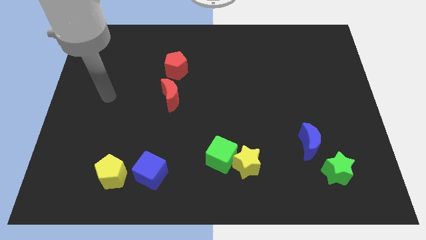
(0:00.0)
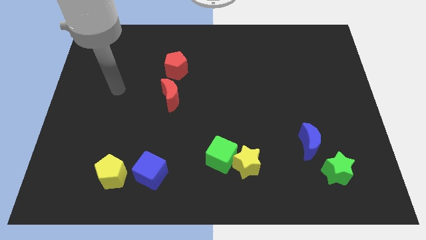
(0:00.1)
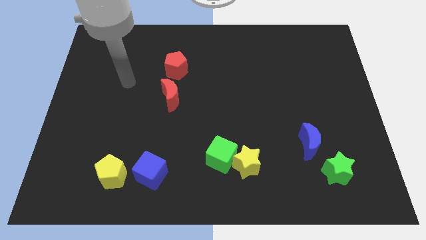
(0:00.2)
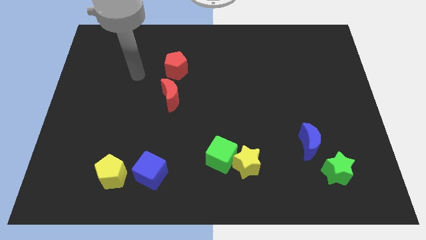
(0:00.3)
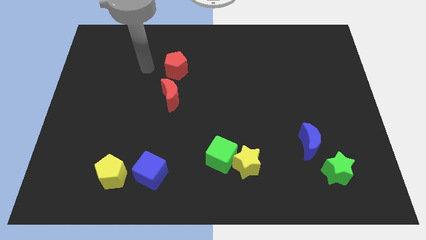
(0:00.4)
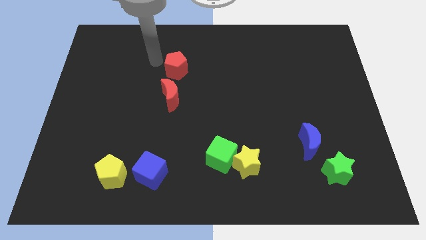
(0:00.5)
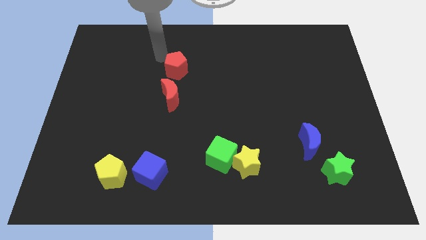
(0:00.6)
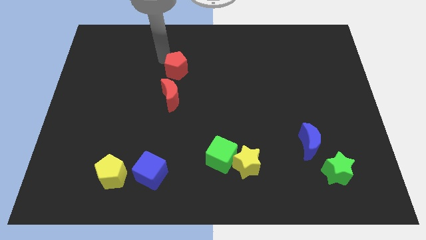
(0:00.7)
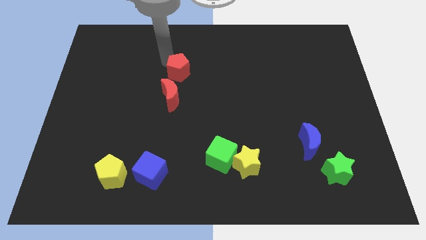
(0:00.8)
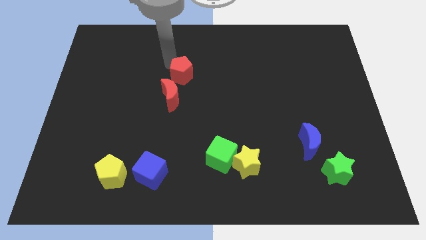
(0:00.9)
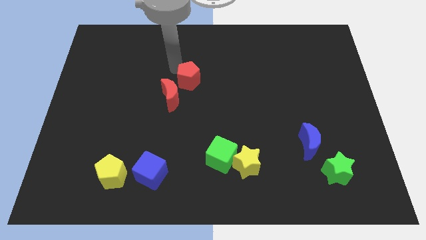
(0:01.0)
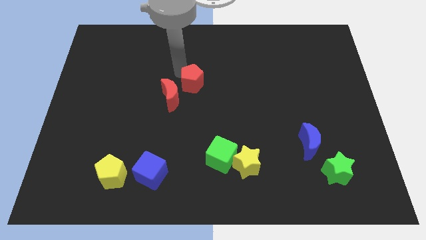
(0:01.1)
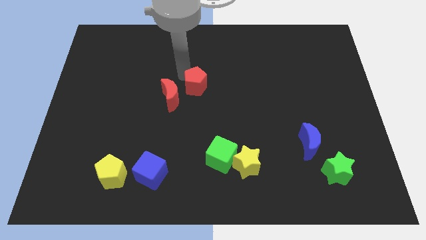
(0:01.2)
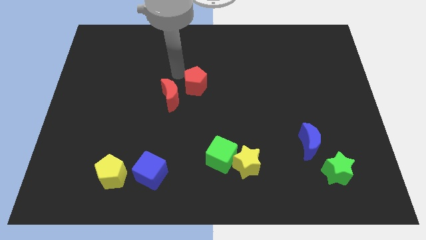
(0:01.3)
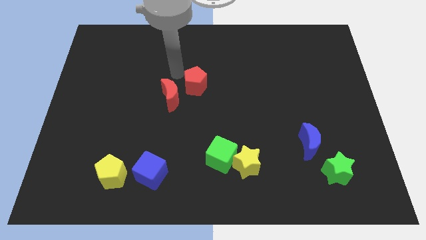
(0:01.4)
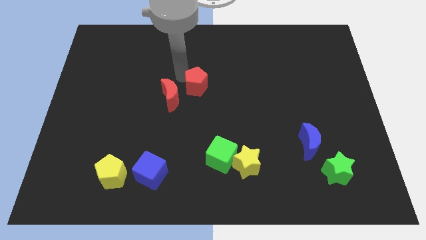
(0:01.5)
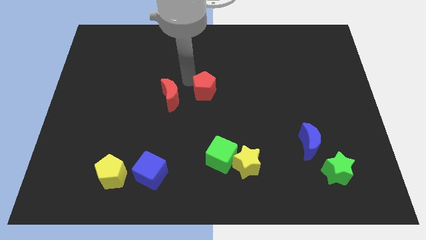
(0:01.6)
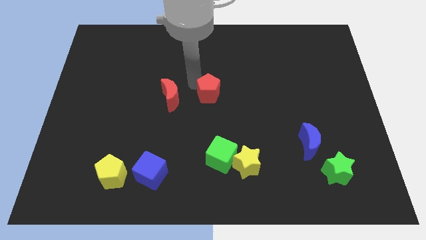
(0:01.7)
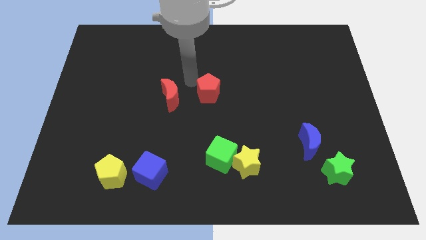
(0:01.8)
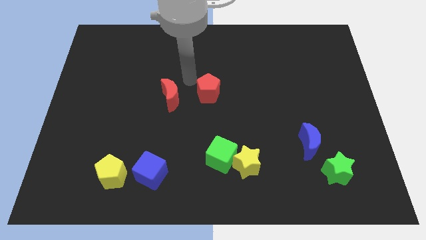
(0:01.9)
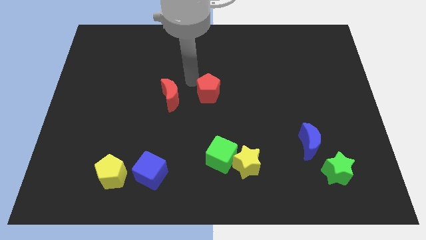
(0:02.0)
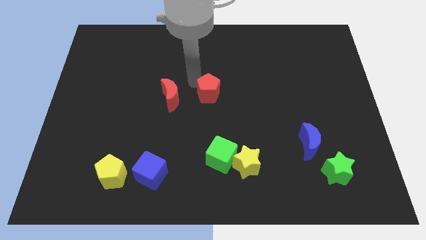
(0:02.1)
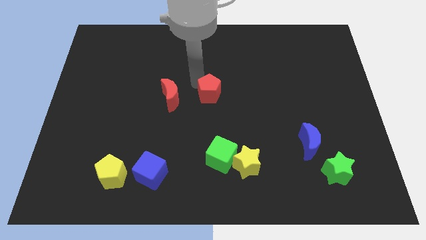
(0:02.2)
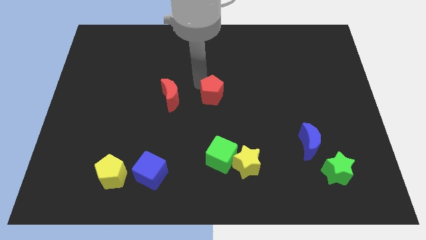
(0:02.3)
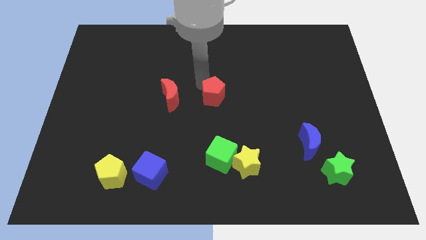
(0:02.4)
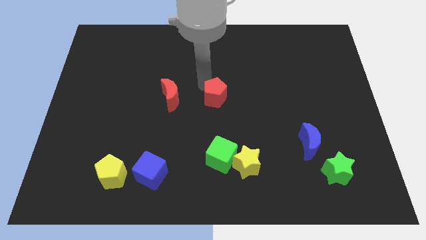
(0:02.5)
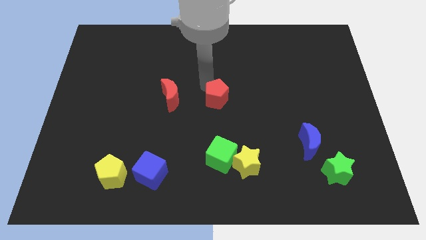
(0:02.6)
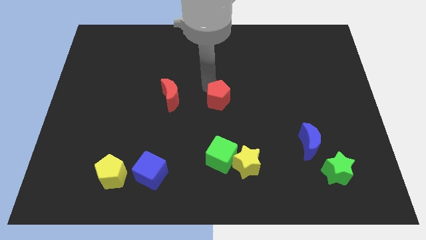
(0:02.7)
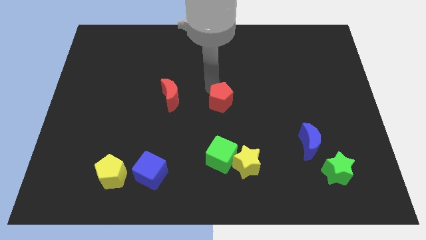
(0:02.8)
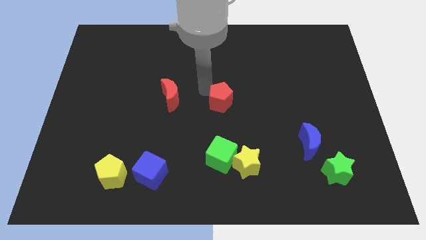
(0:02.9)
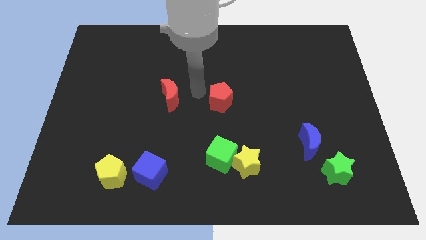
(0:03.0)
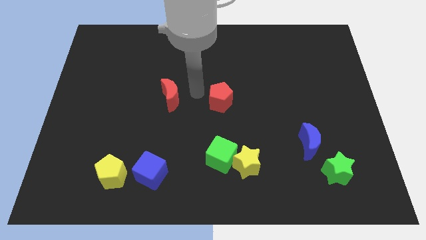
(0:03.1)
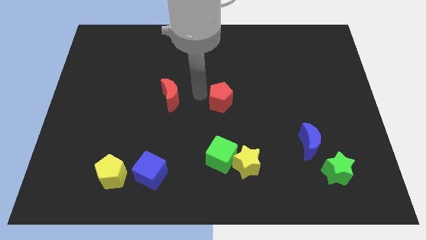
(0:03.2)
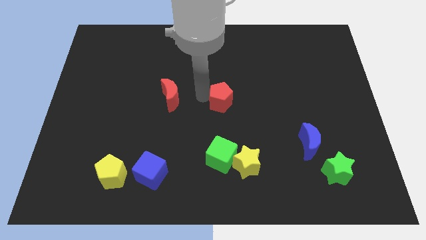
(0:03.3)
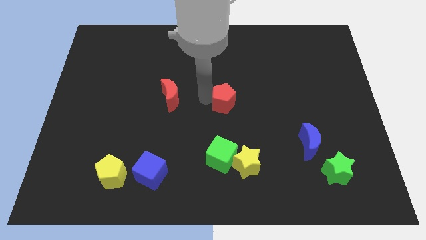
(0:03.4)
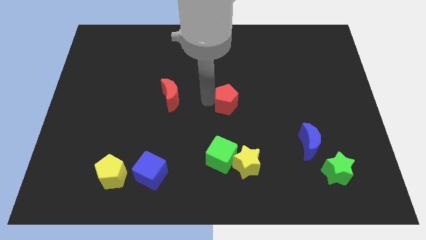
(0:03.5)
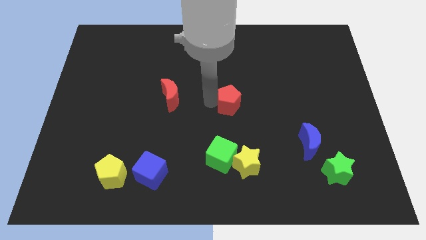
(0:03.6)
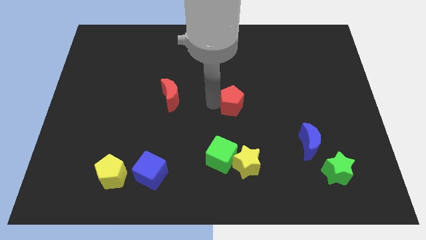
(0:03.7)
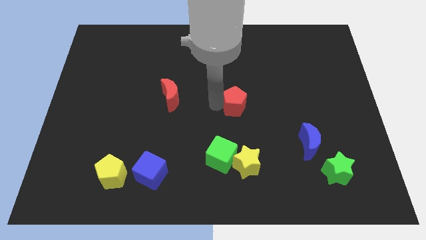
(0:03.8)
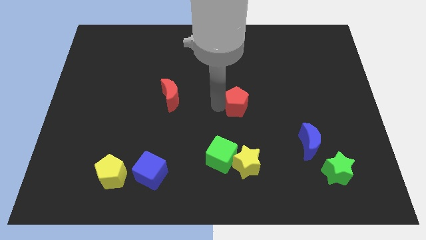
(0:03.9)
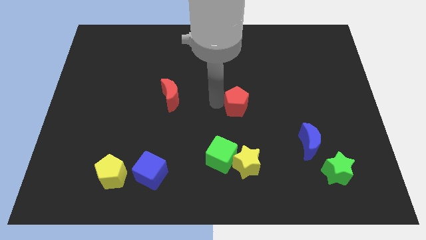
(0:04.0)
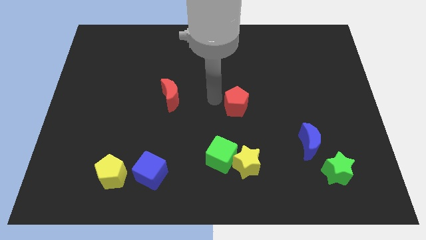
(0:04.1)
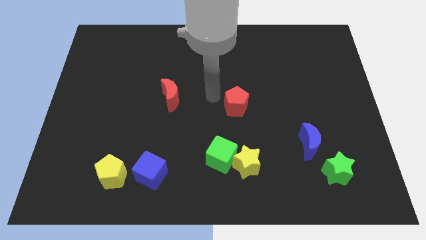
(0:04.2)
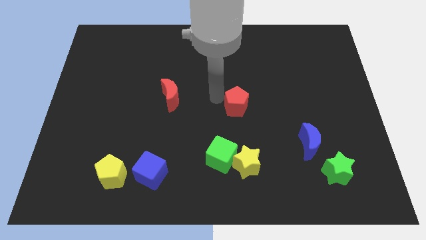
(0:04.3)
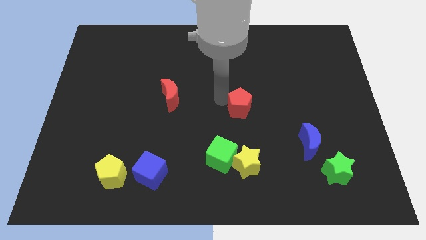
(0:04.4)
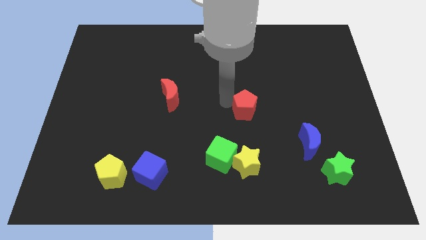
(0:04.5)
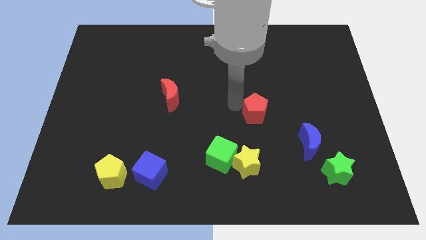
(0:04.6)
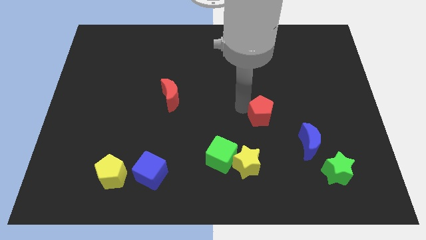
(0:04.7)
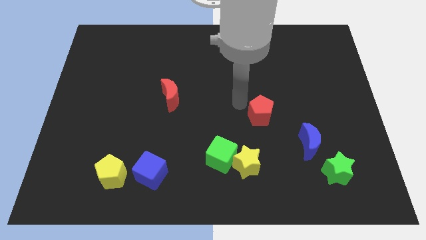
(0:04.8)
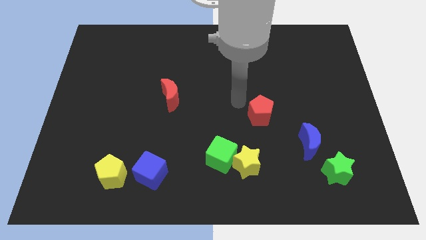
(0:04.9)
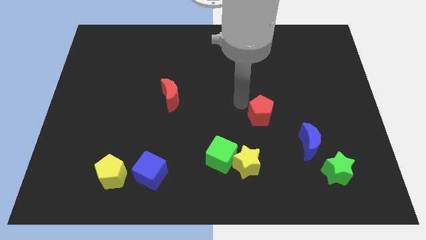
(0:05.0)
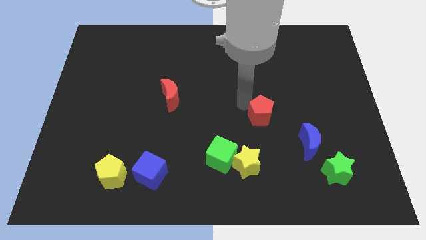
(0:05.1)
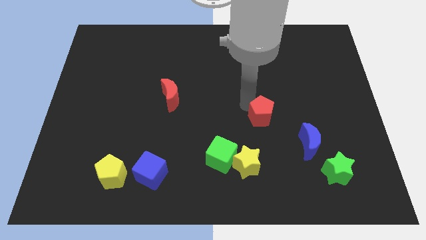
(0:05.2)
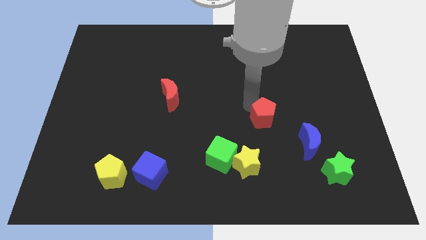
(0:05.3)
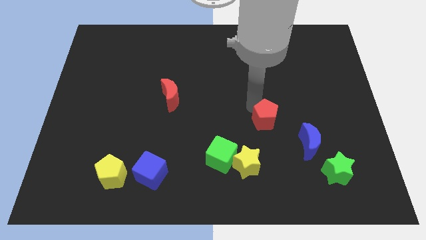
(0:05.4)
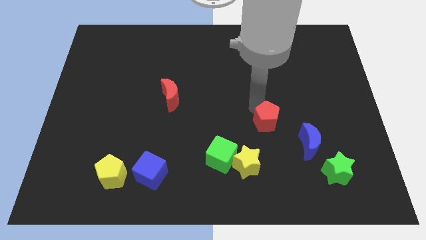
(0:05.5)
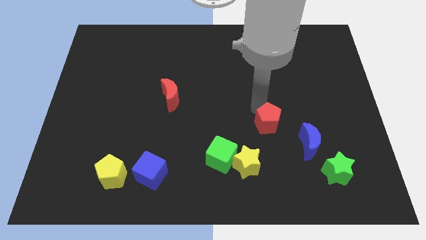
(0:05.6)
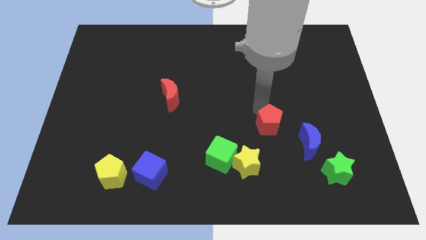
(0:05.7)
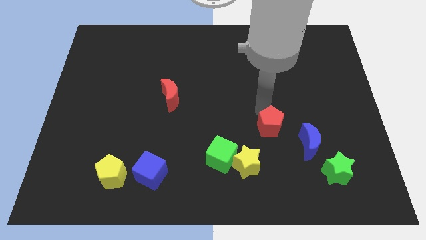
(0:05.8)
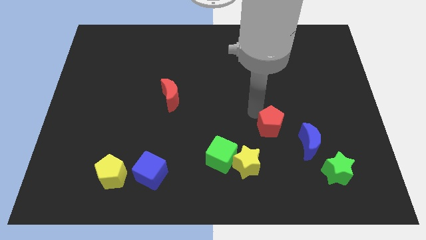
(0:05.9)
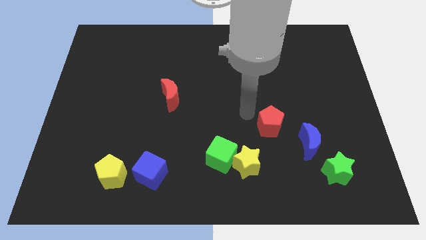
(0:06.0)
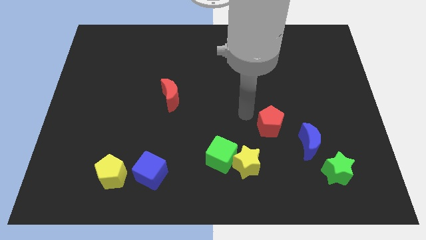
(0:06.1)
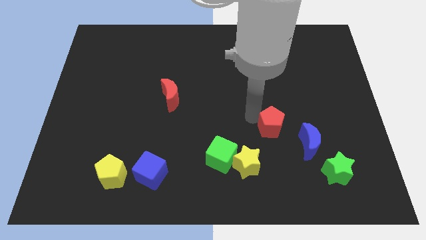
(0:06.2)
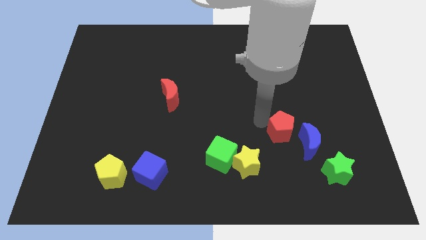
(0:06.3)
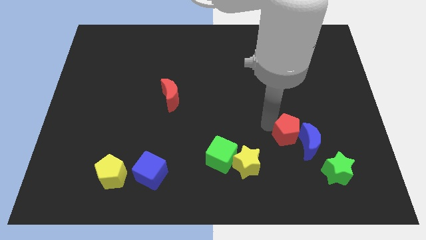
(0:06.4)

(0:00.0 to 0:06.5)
move the red pentagon towards the blue moon

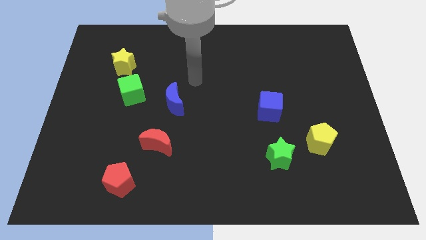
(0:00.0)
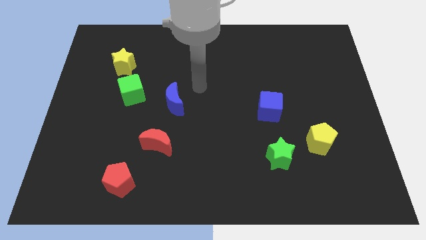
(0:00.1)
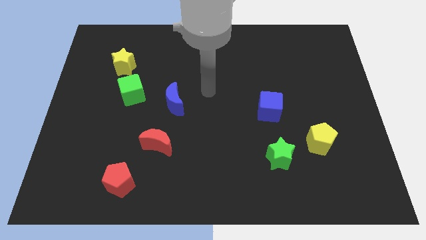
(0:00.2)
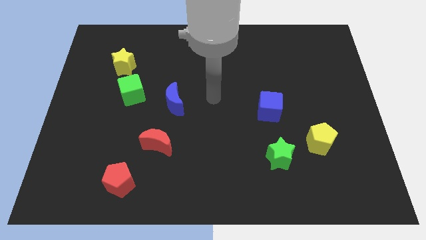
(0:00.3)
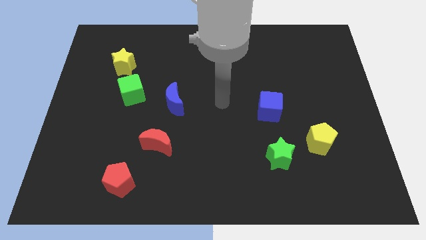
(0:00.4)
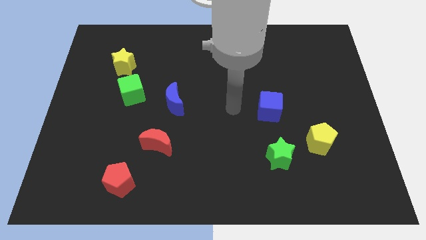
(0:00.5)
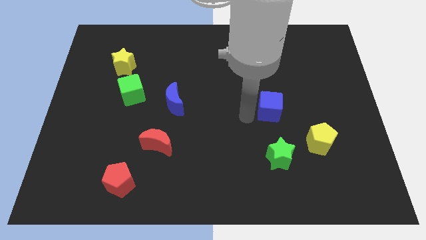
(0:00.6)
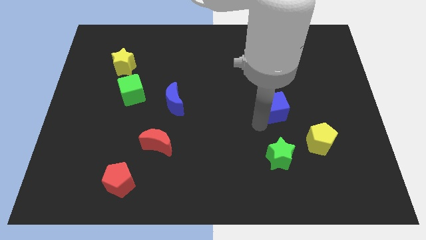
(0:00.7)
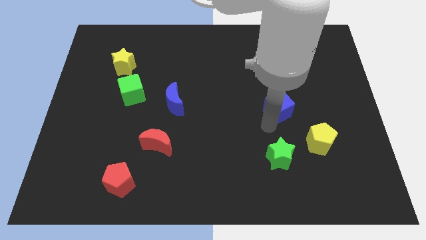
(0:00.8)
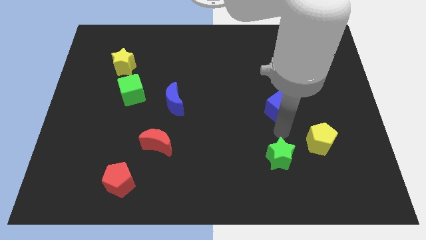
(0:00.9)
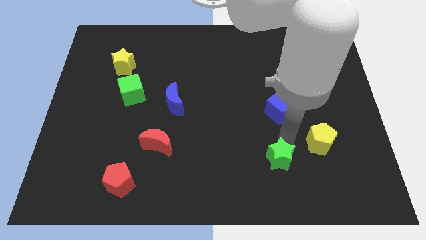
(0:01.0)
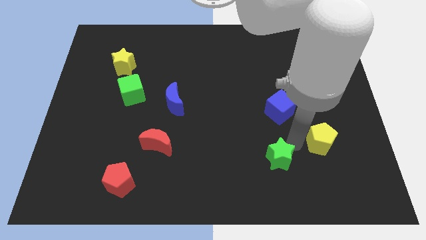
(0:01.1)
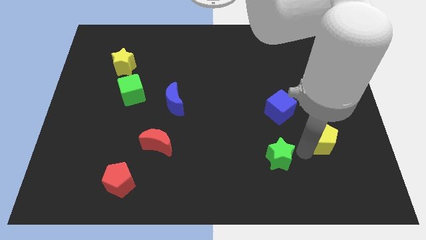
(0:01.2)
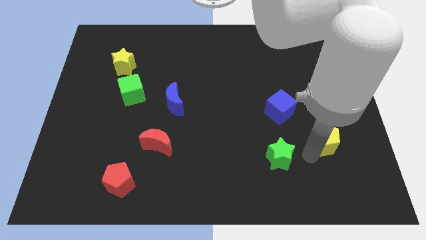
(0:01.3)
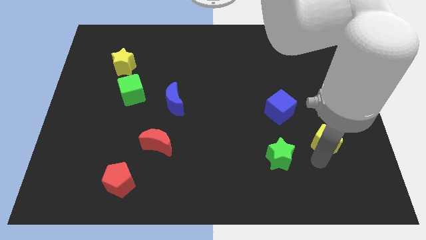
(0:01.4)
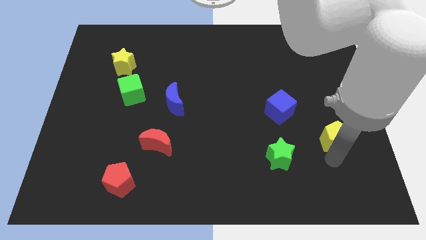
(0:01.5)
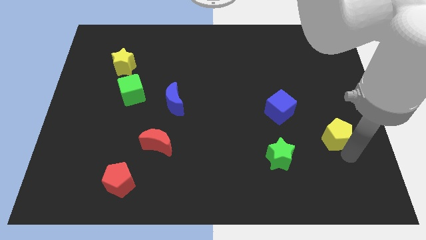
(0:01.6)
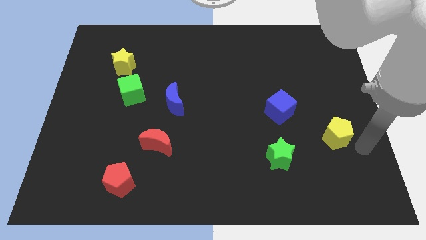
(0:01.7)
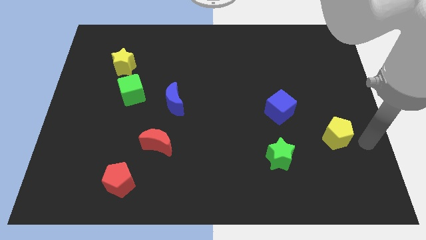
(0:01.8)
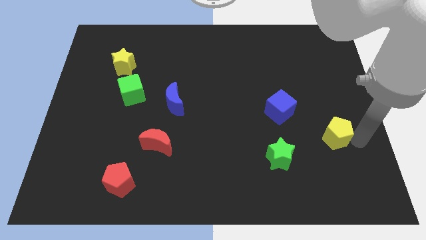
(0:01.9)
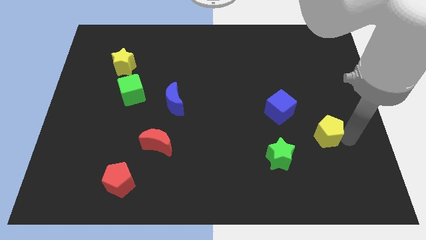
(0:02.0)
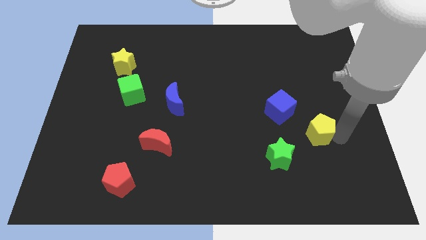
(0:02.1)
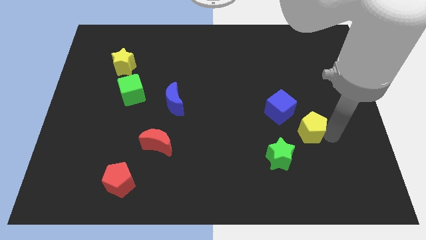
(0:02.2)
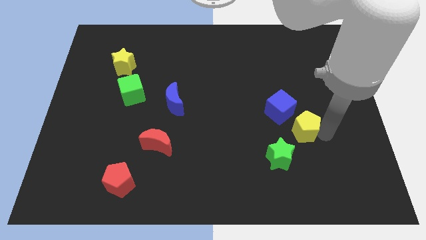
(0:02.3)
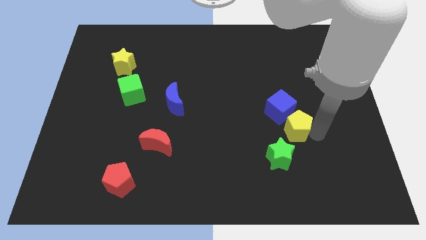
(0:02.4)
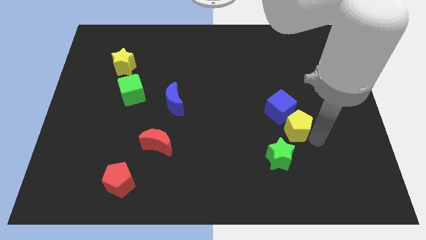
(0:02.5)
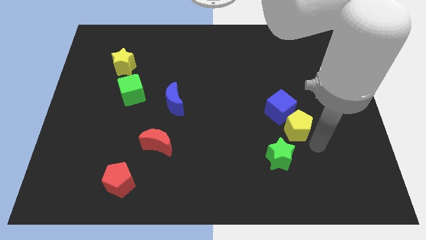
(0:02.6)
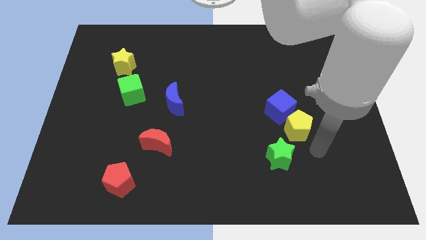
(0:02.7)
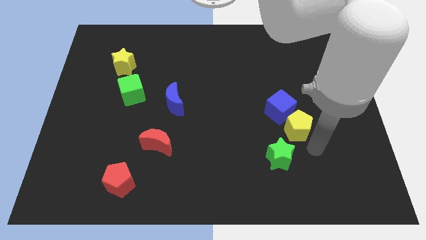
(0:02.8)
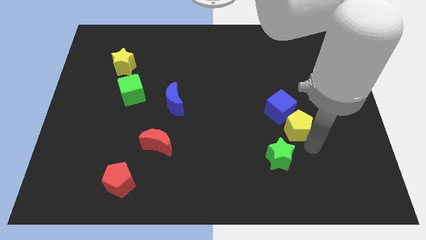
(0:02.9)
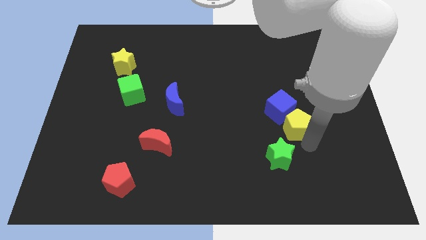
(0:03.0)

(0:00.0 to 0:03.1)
move the yellow pentagon to the blue cube
